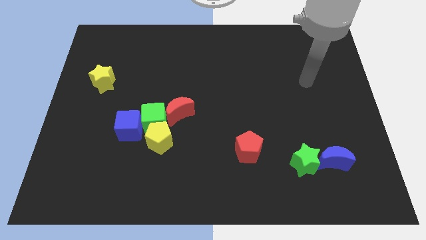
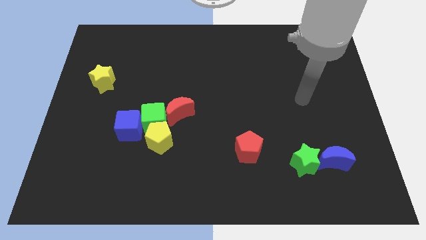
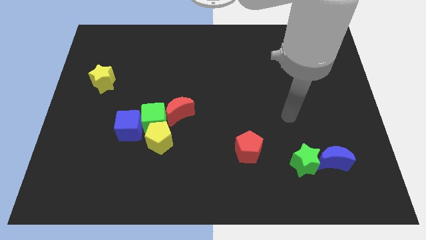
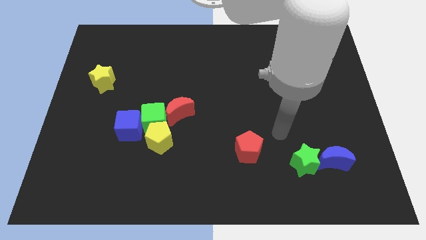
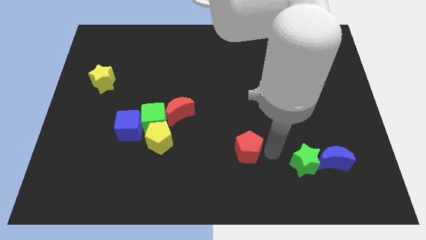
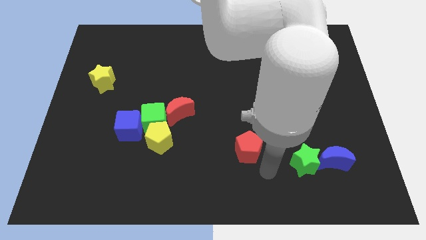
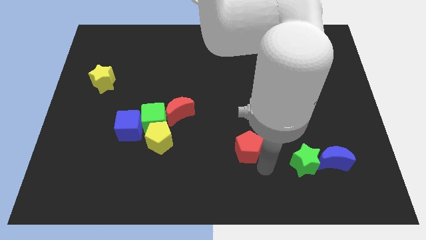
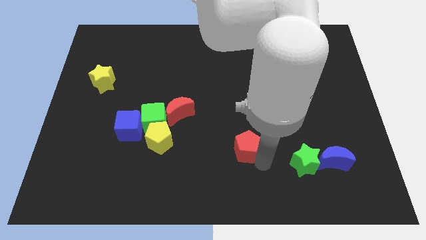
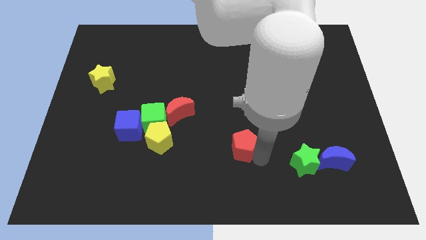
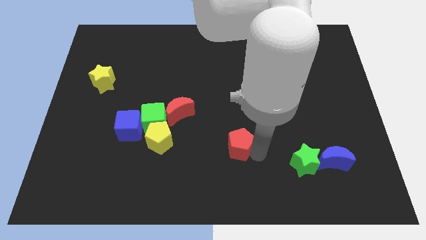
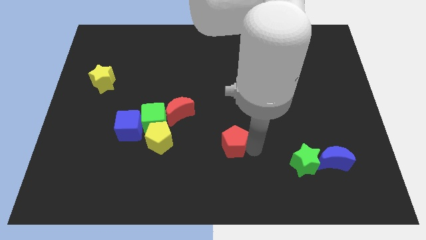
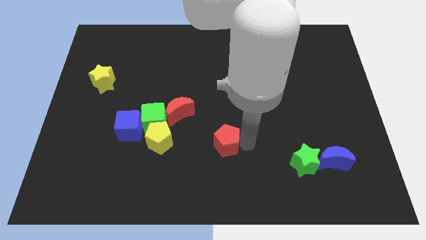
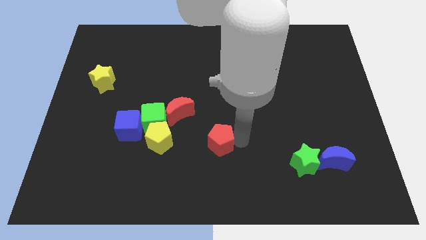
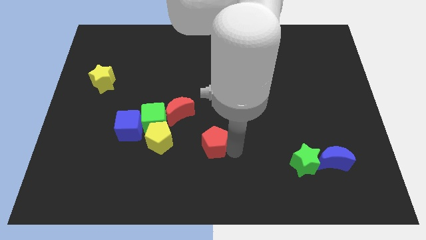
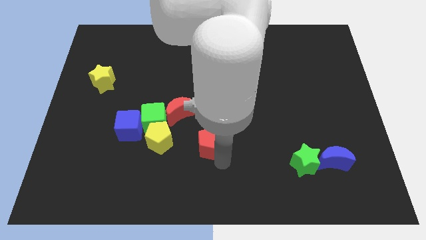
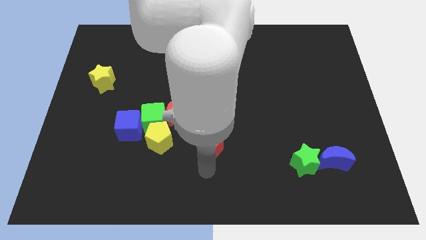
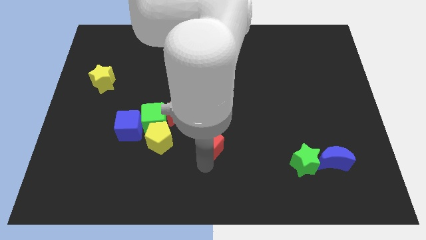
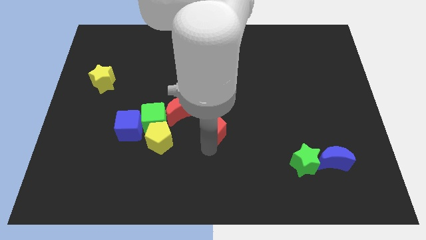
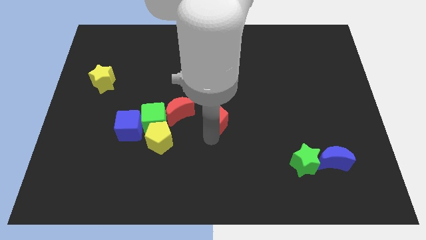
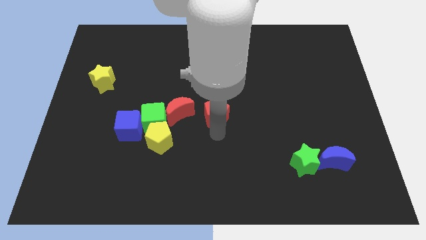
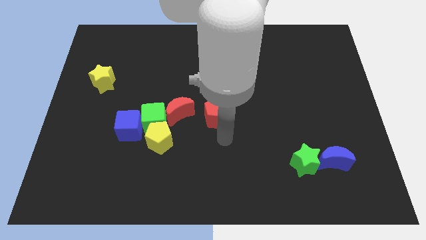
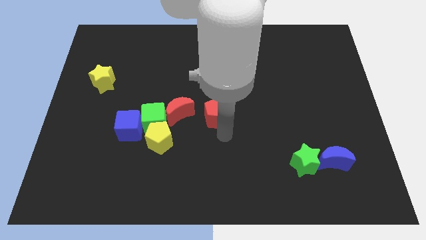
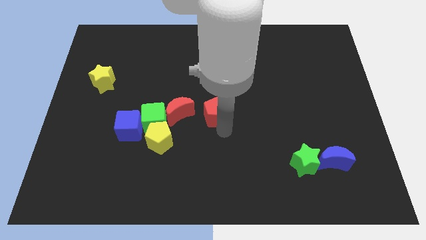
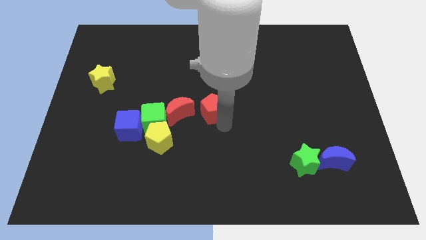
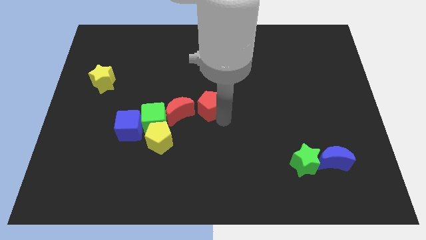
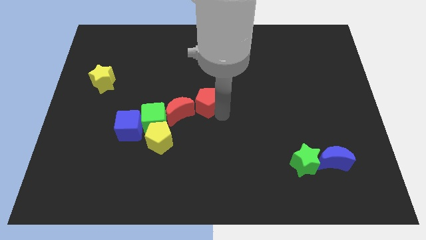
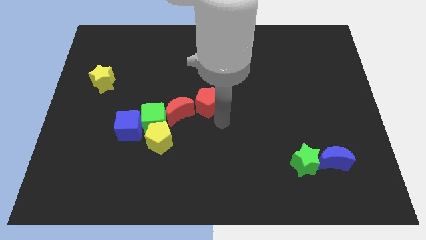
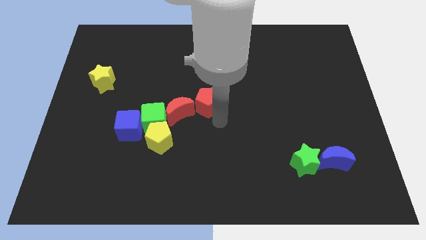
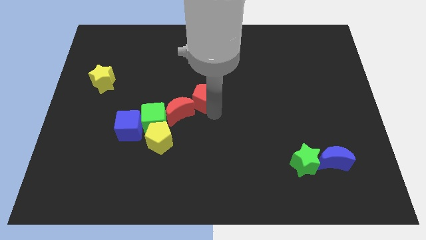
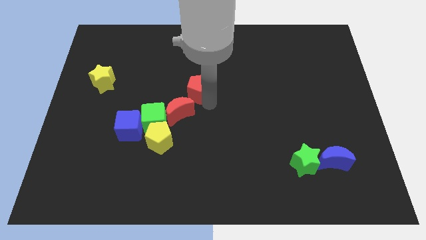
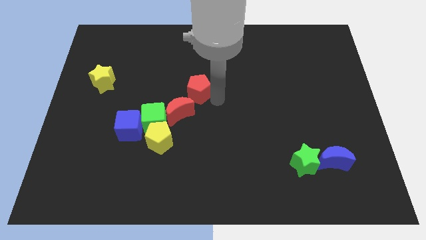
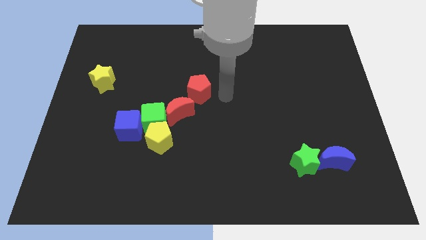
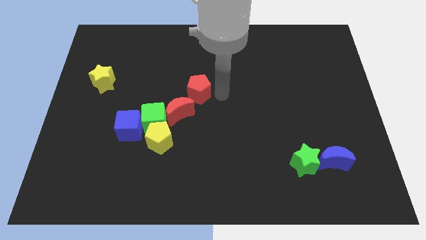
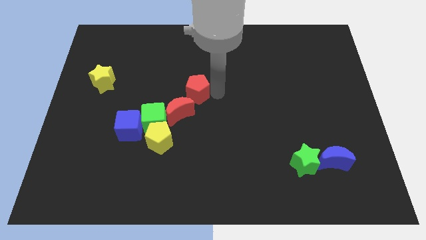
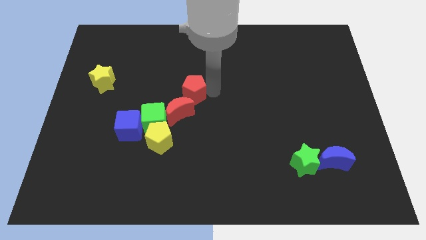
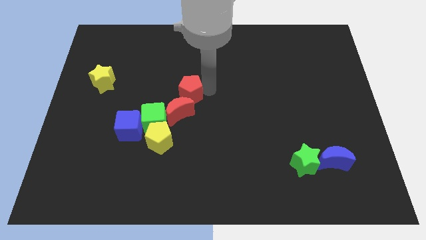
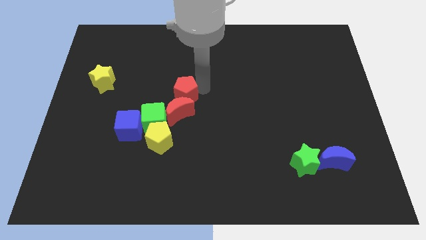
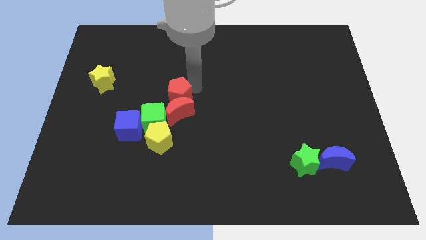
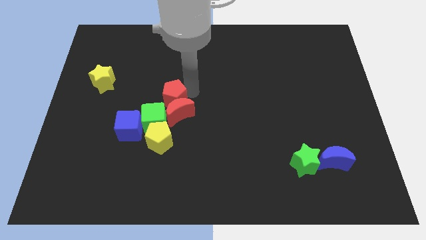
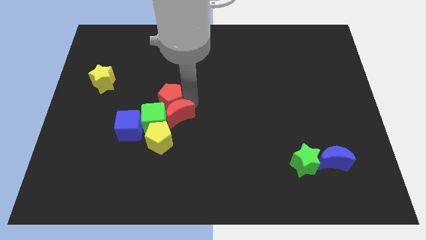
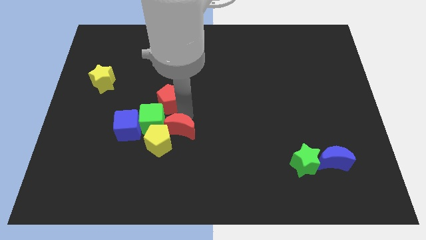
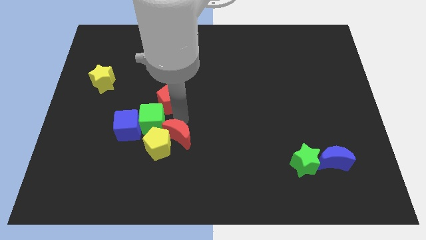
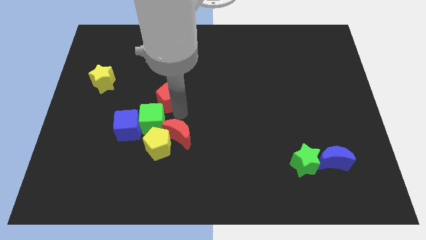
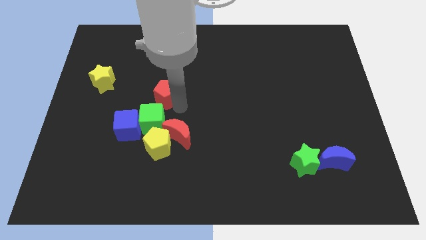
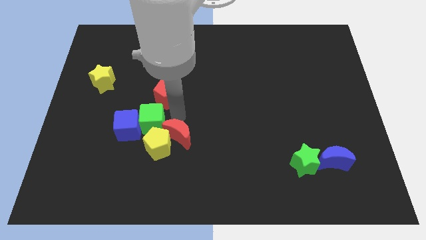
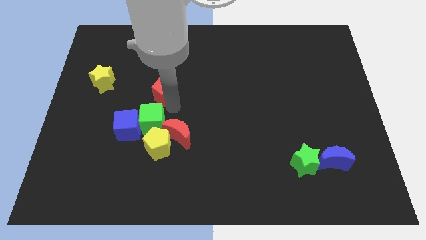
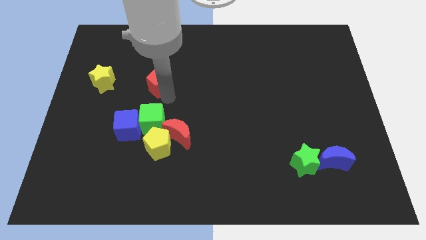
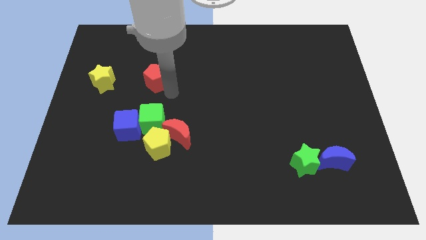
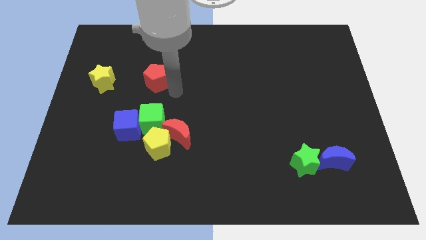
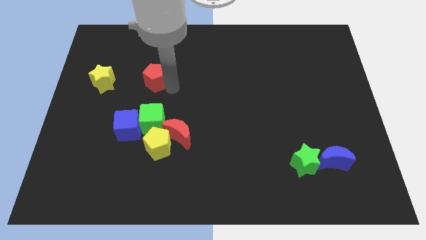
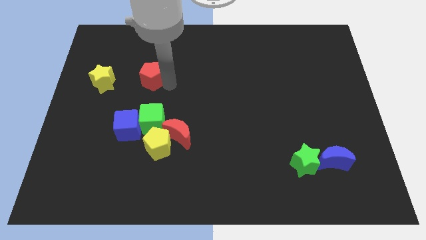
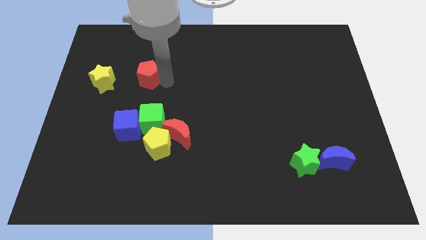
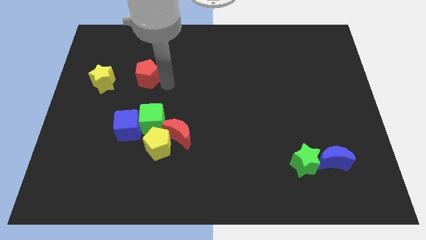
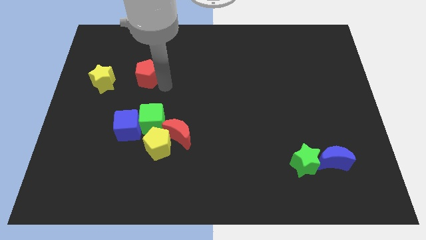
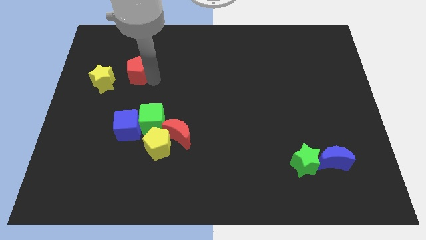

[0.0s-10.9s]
move the red pentagon to the top right of the yellow star

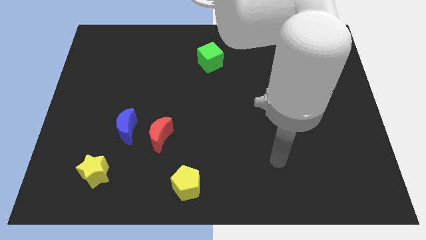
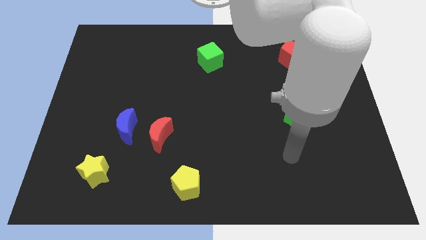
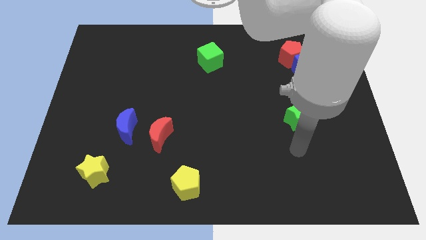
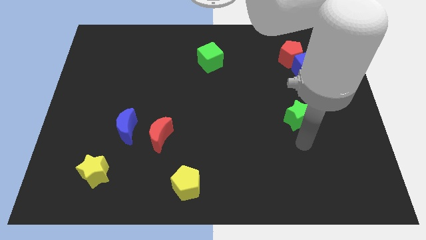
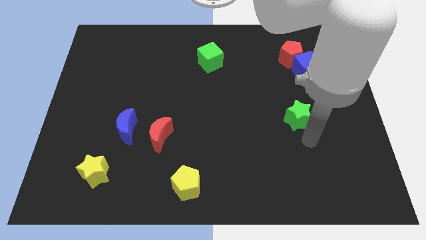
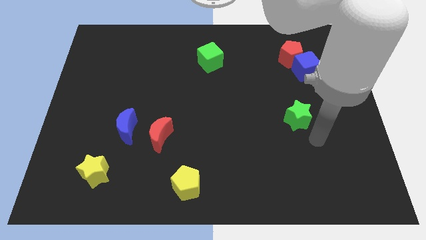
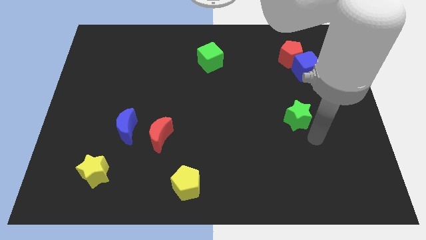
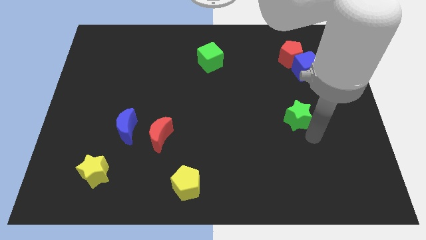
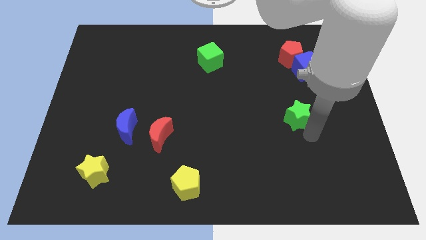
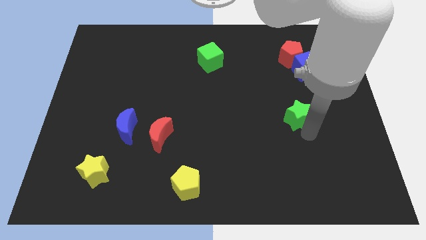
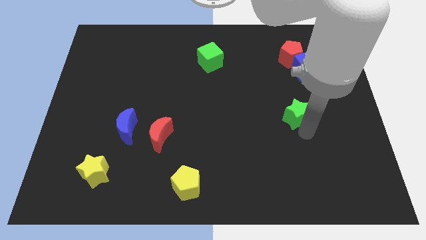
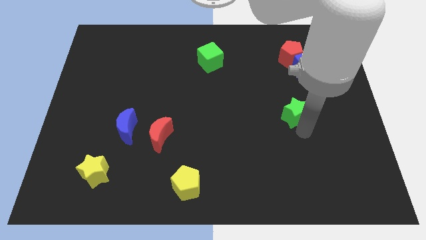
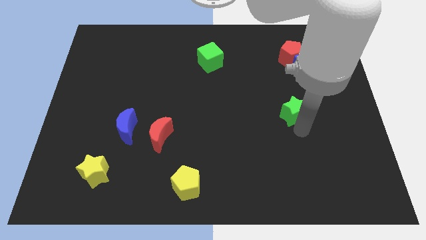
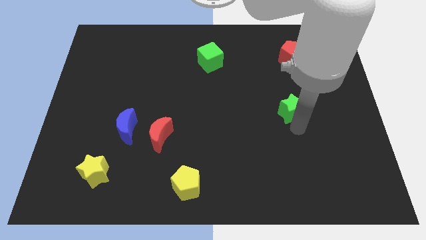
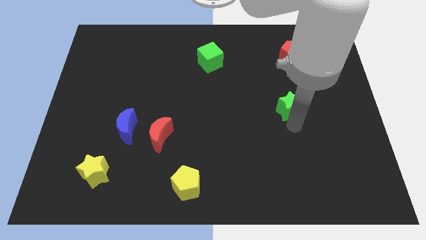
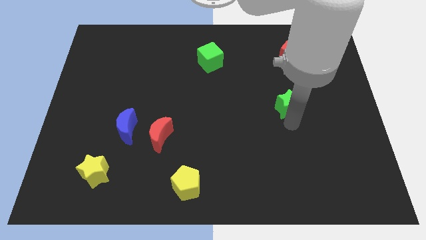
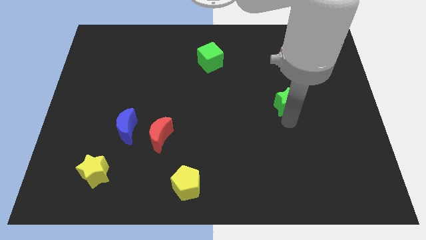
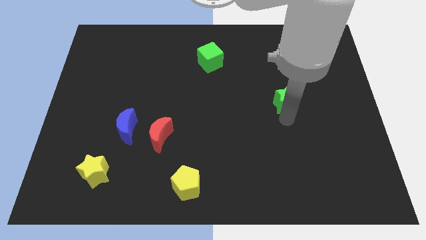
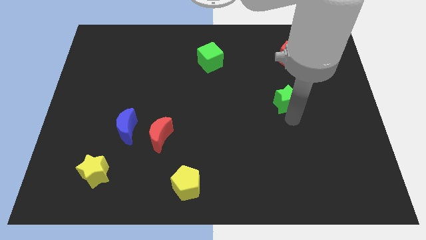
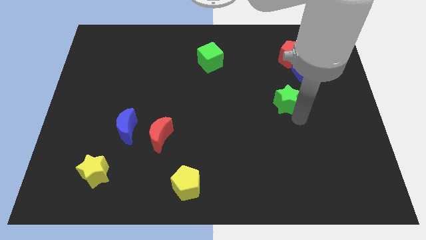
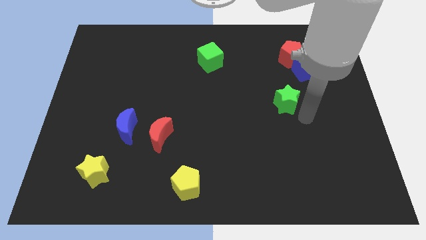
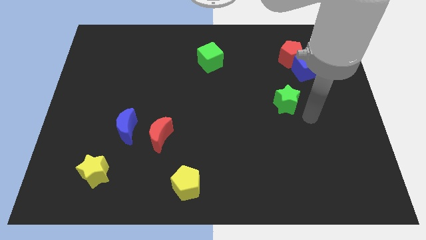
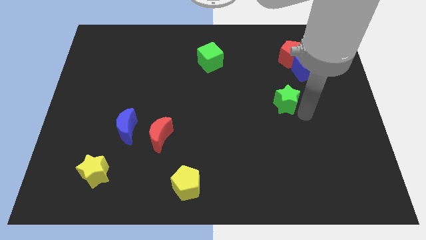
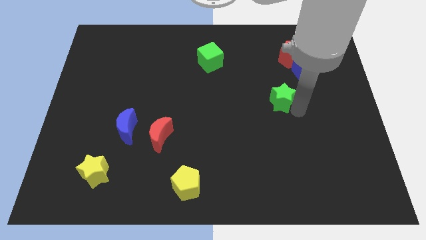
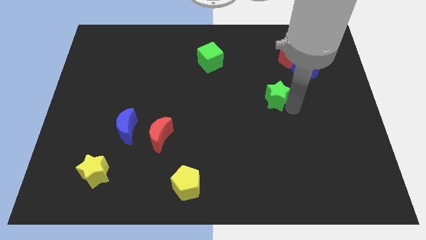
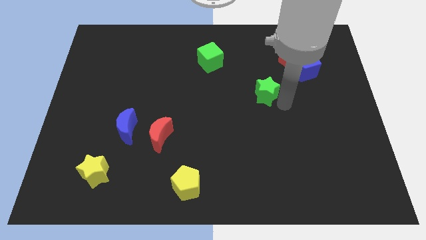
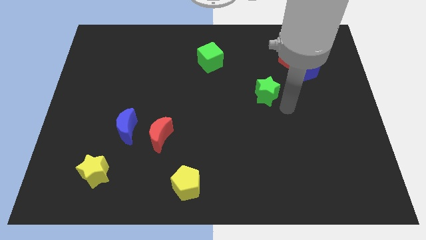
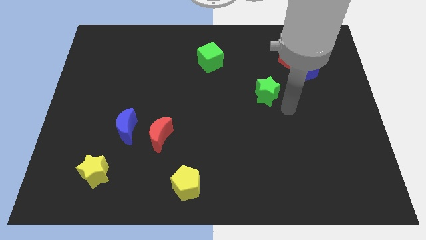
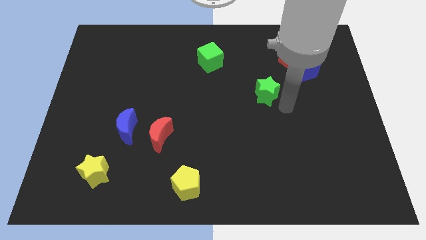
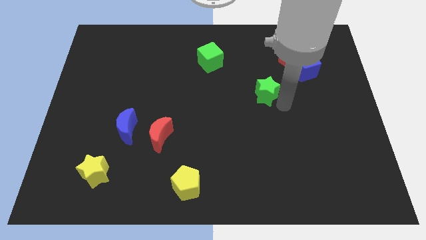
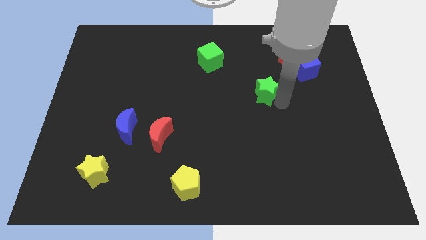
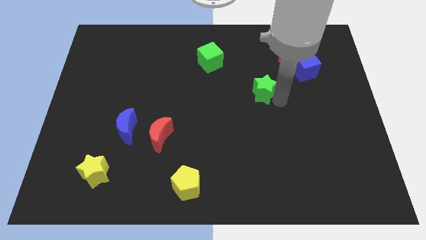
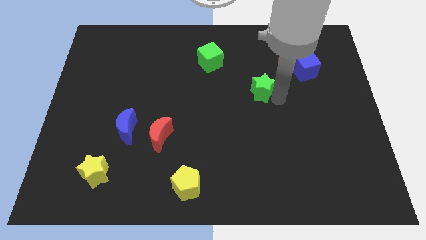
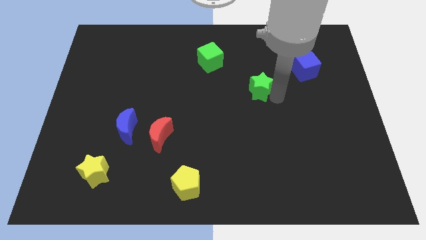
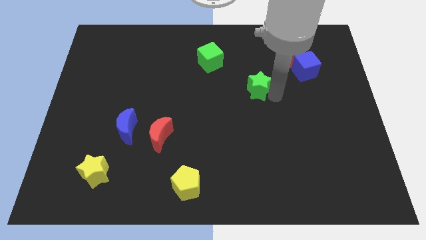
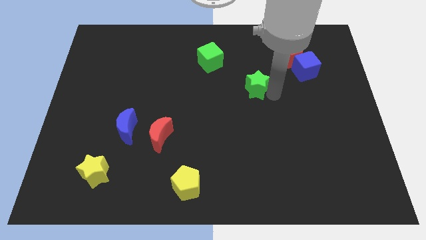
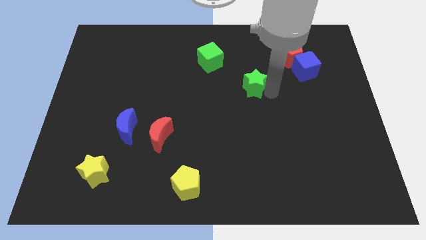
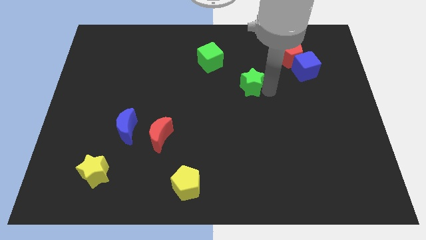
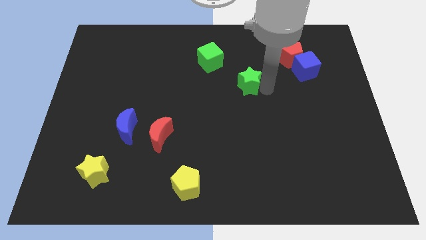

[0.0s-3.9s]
slide the green star to the bottom right side of the green cube
